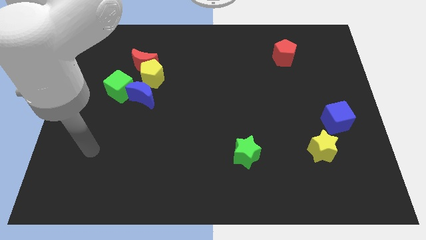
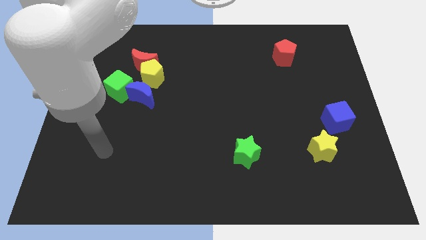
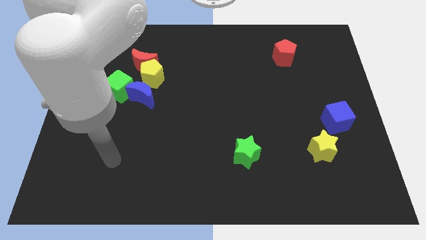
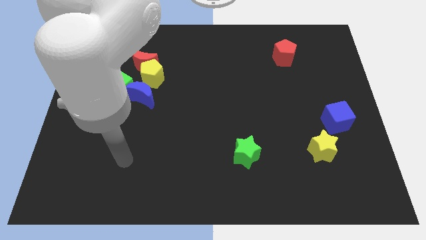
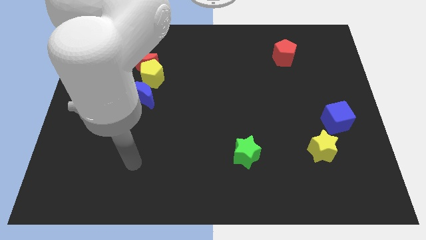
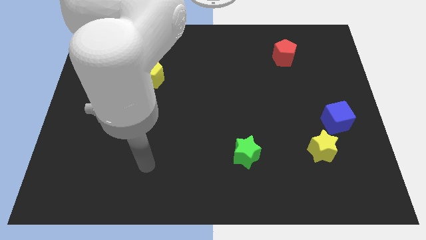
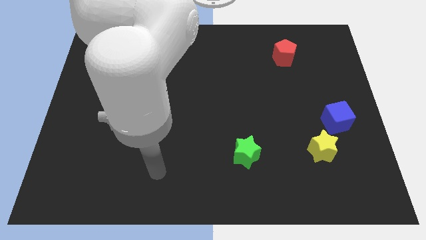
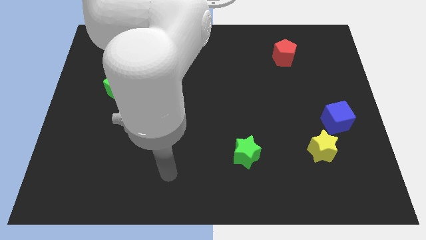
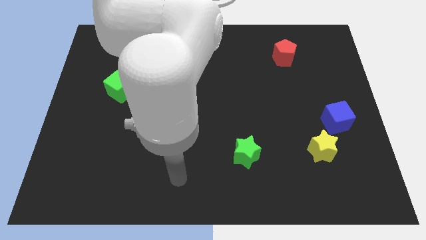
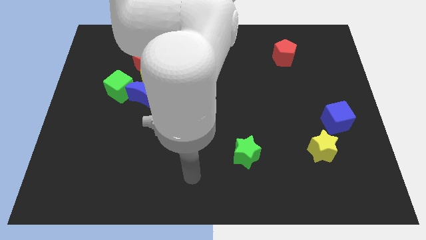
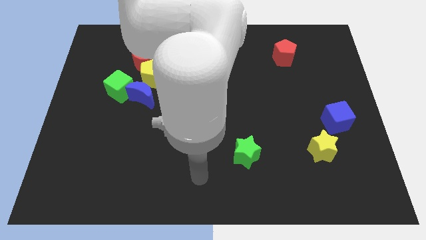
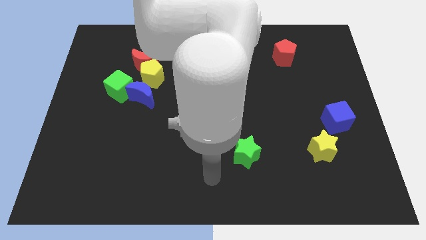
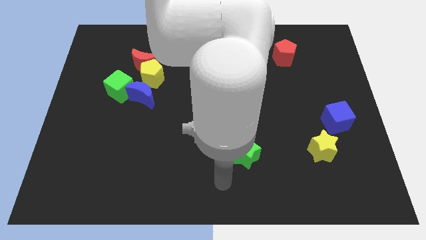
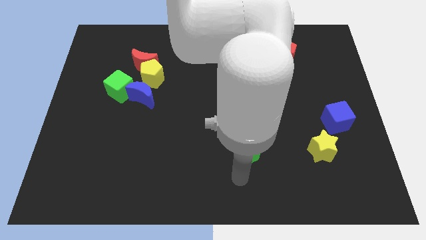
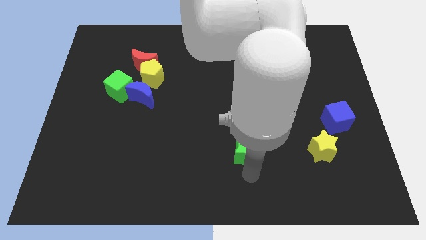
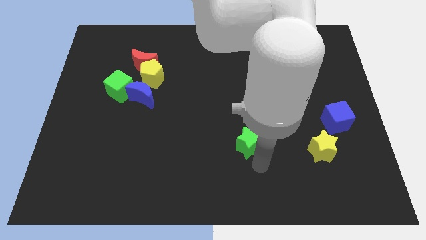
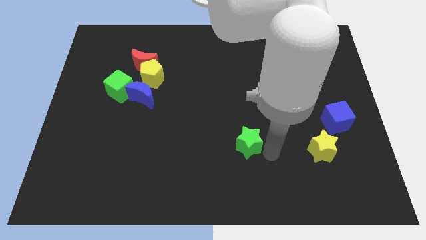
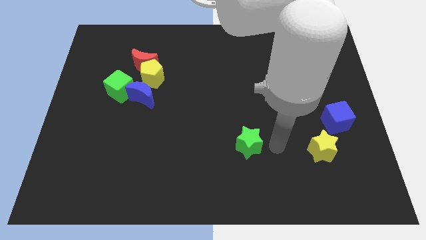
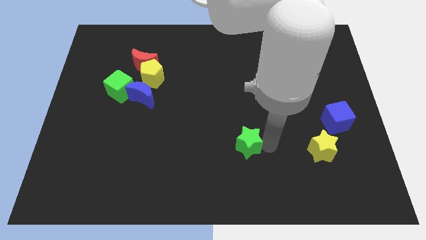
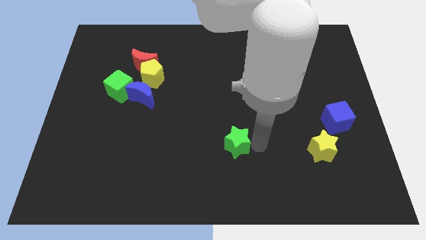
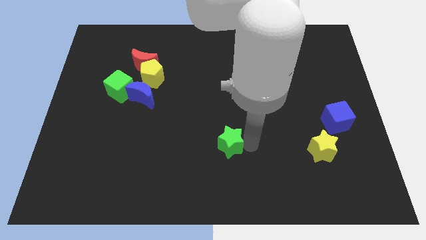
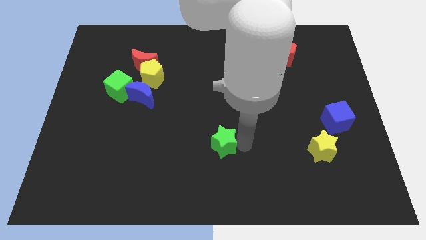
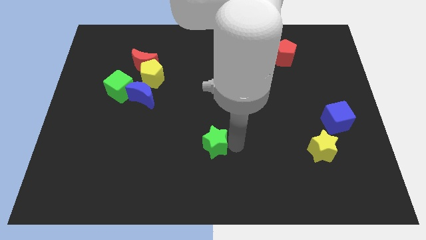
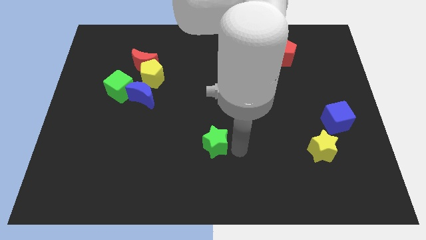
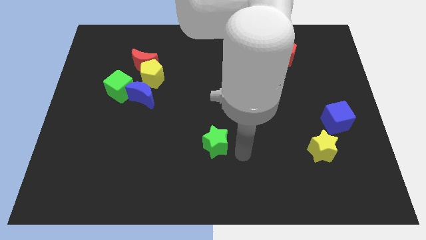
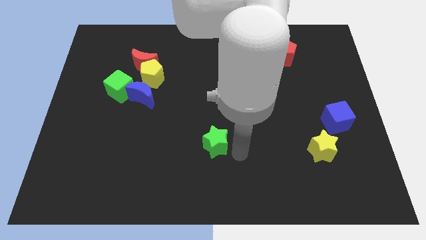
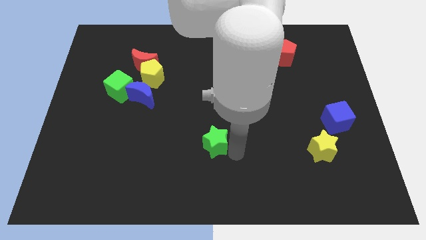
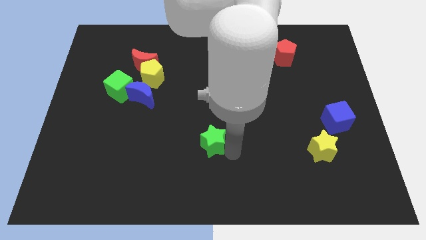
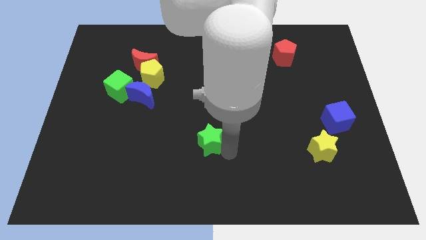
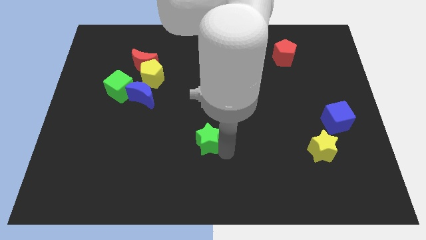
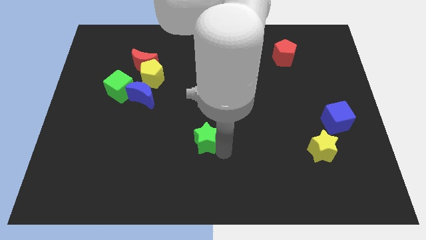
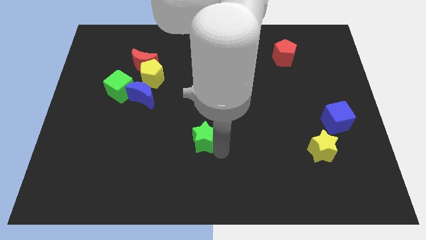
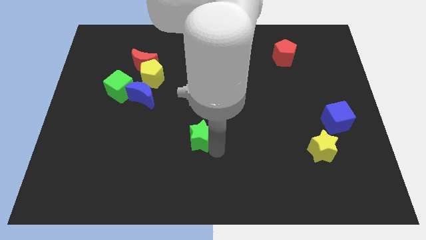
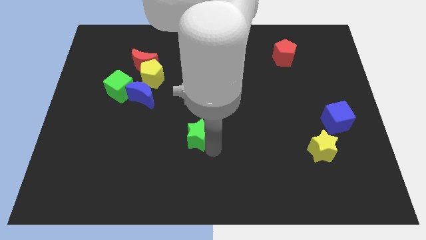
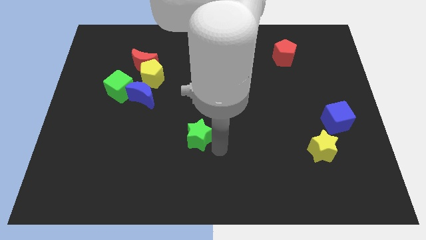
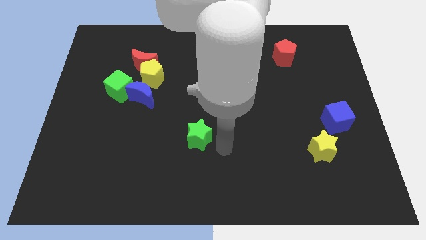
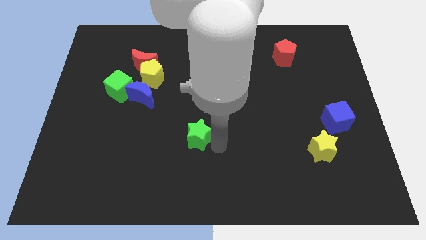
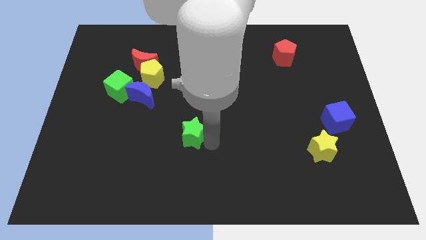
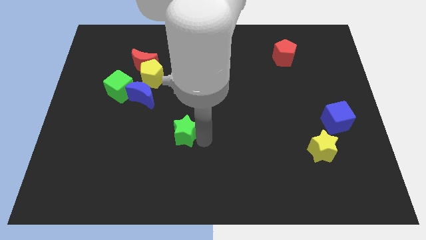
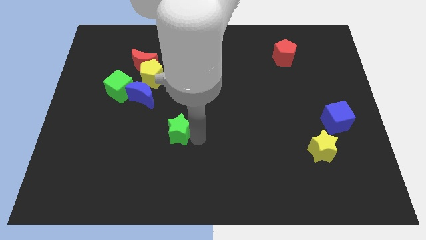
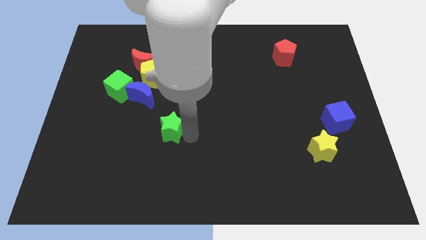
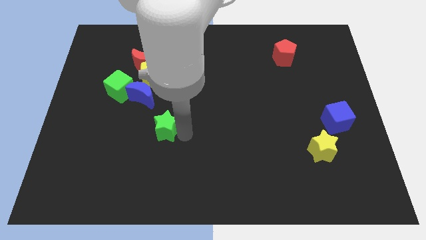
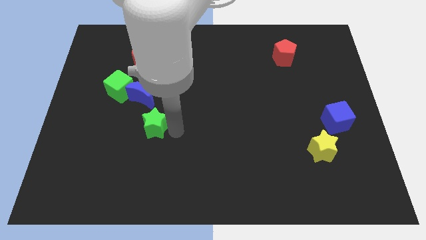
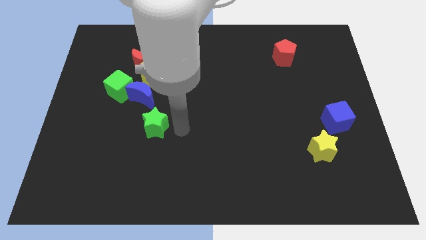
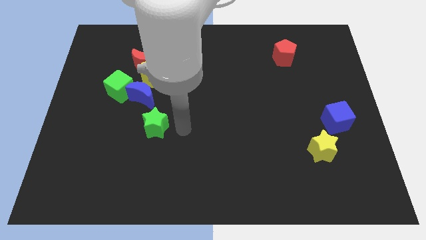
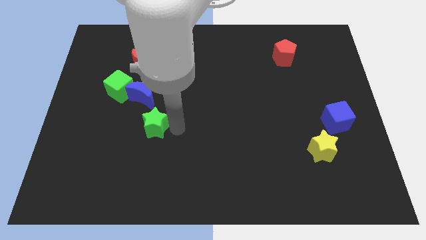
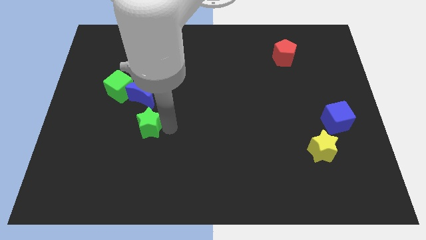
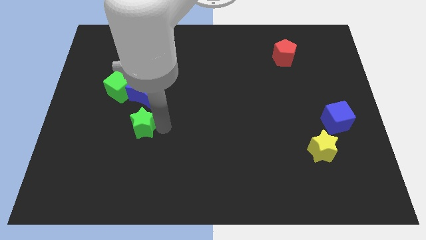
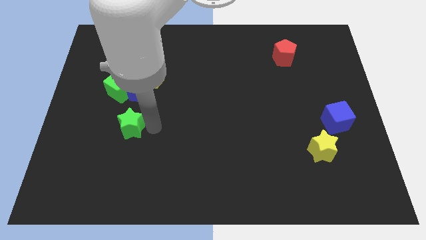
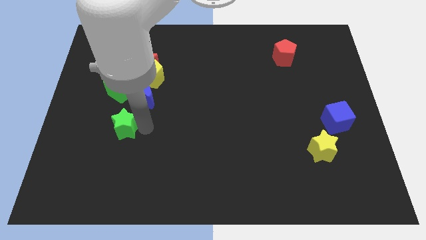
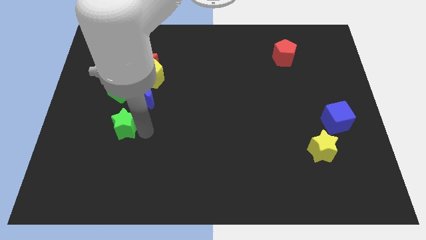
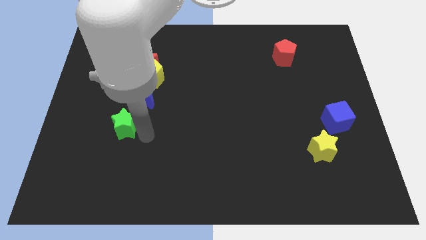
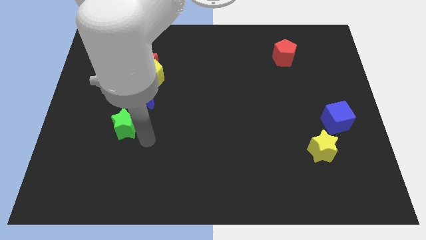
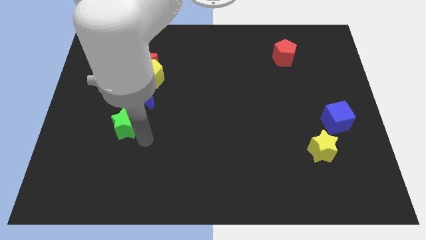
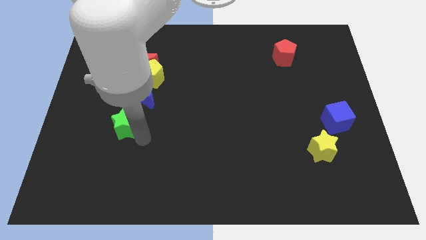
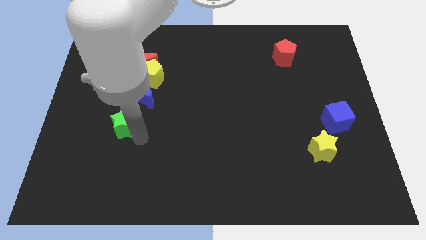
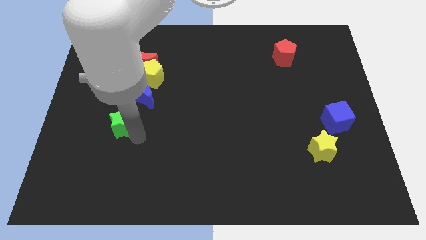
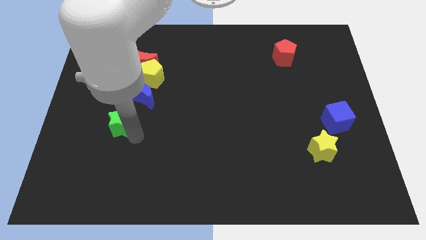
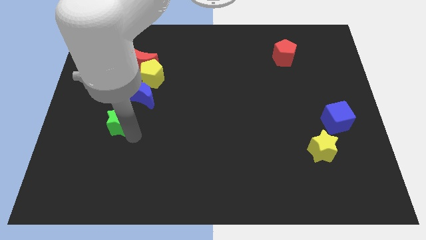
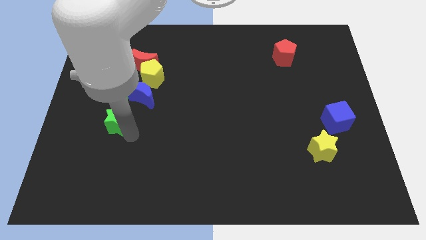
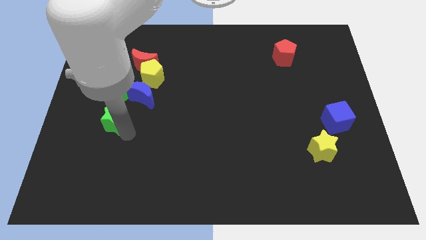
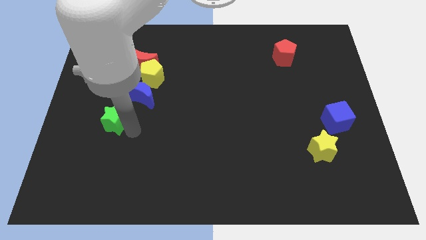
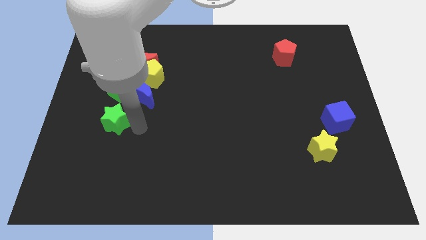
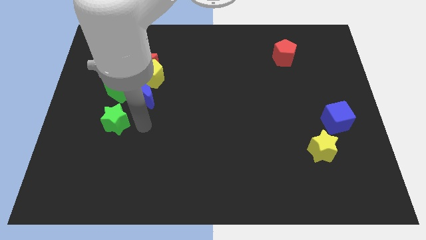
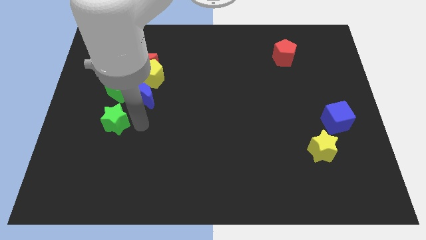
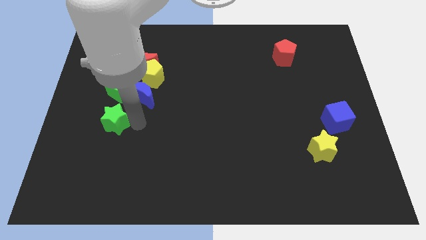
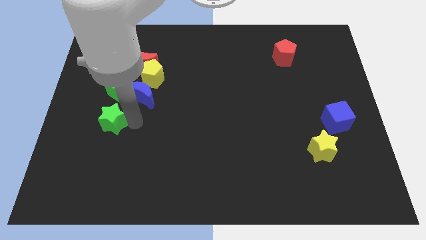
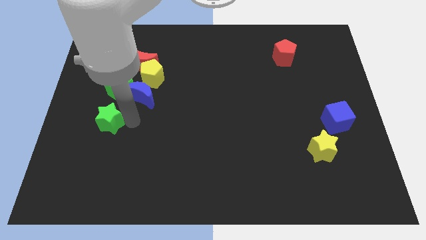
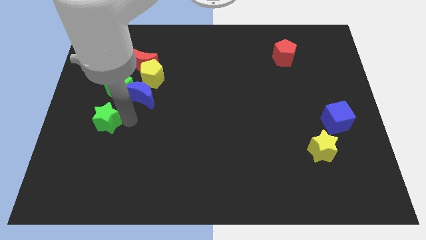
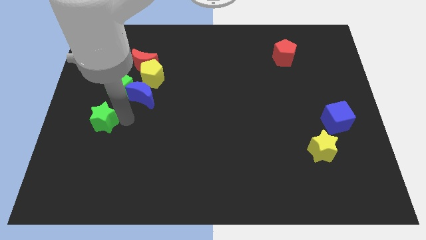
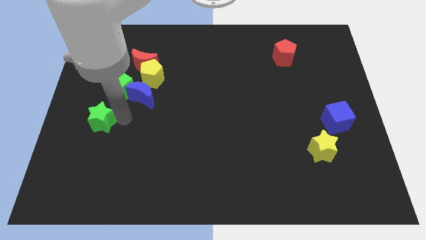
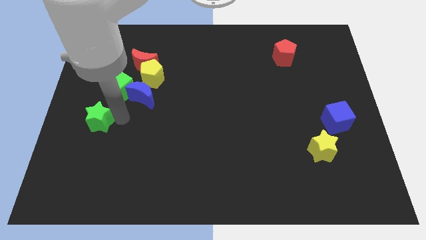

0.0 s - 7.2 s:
put the green star to the center left

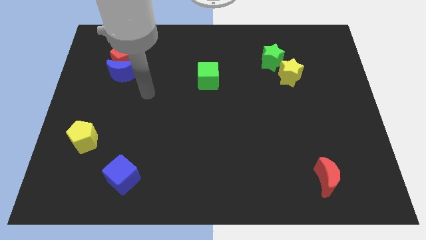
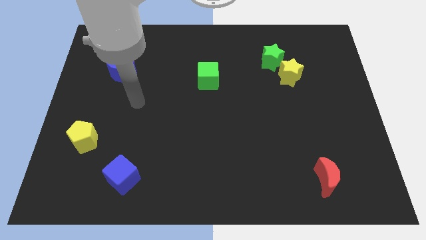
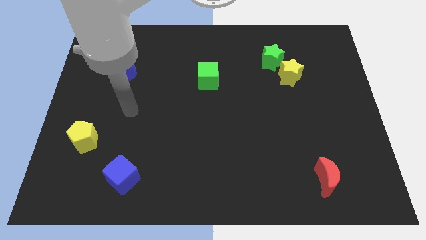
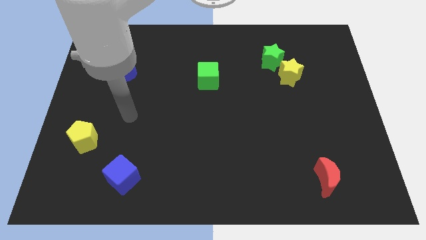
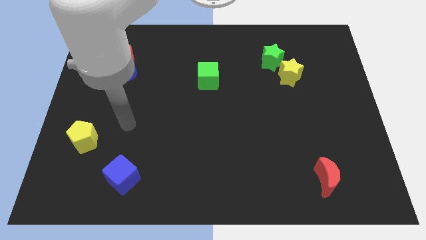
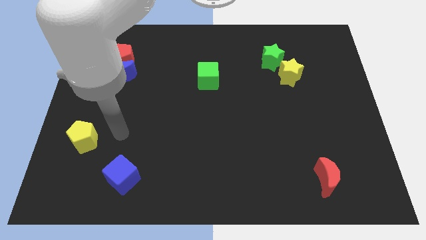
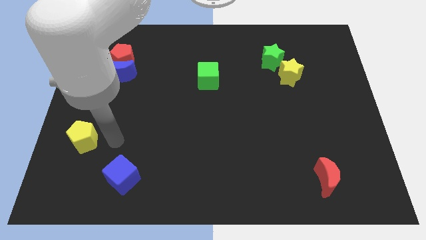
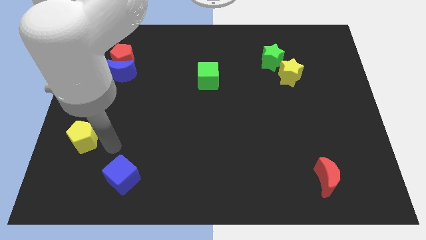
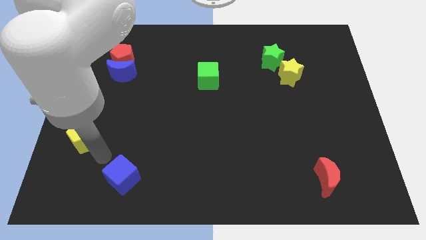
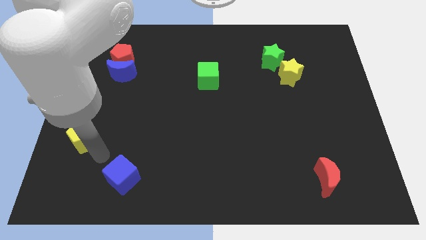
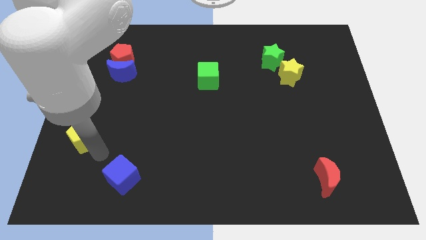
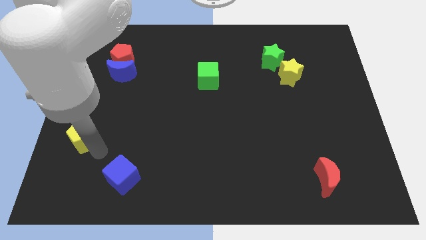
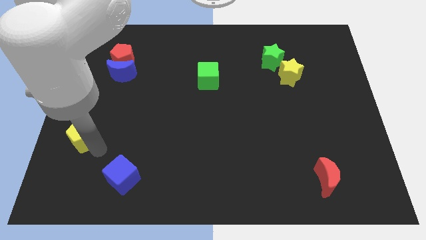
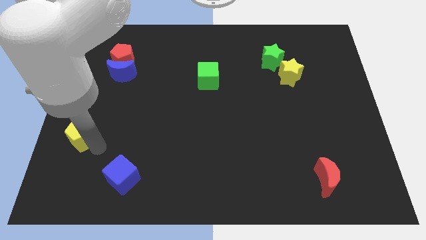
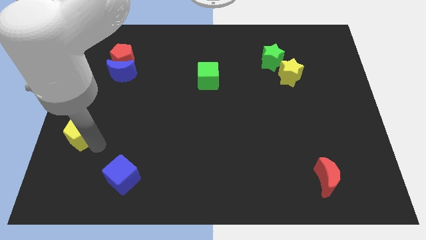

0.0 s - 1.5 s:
put the yellow pentagon to the left side
